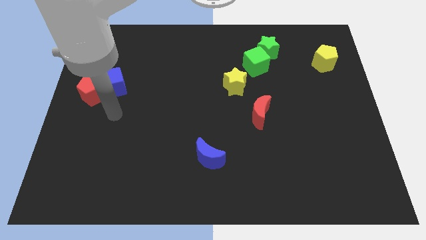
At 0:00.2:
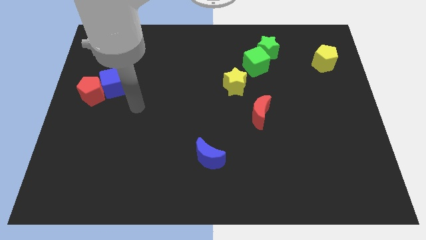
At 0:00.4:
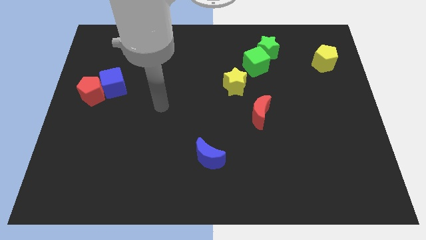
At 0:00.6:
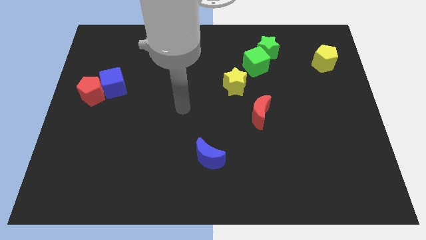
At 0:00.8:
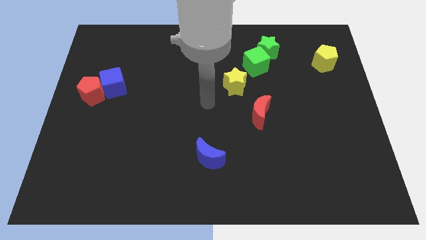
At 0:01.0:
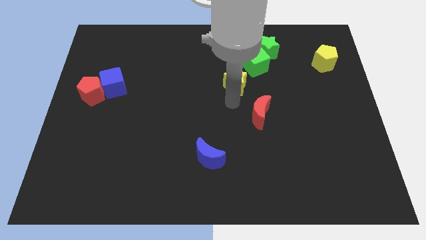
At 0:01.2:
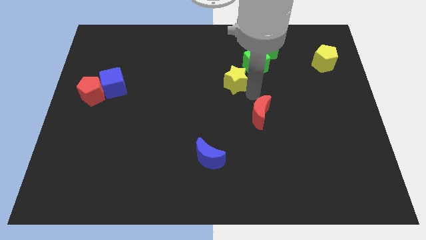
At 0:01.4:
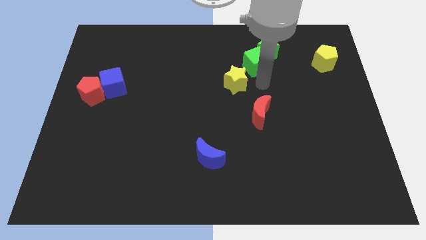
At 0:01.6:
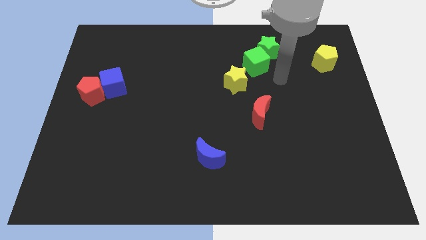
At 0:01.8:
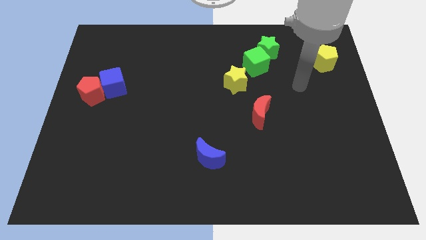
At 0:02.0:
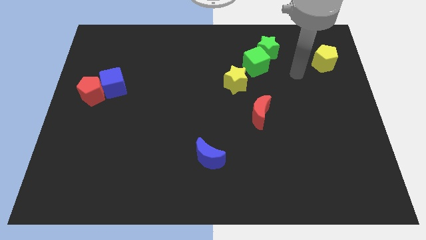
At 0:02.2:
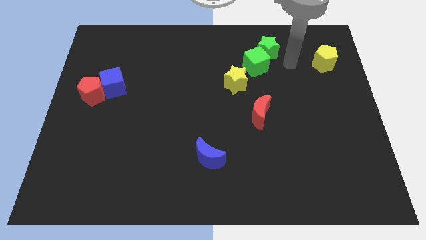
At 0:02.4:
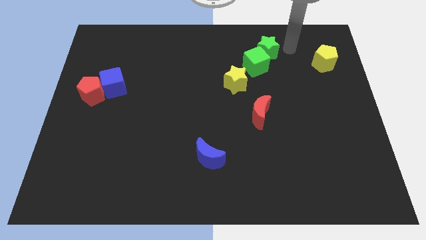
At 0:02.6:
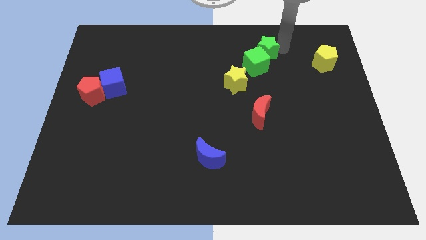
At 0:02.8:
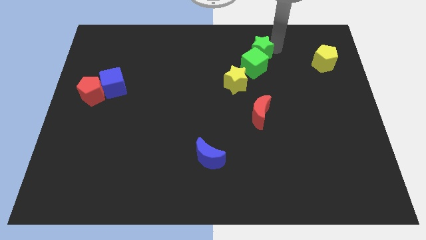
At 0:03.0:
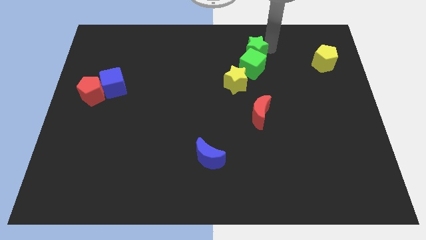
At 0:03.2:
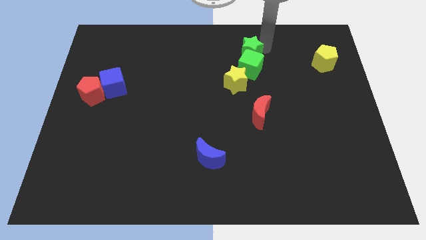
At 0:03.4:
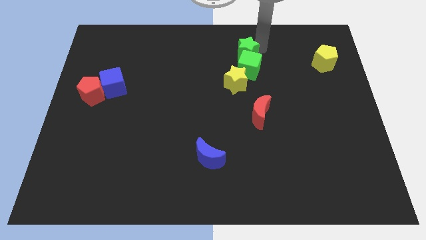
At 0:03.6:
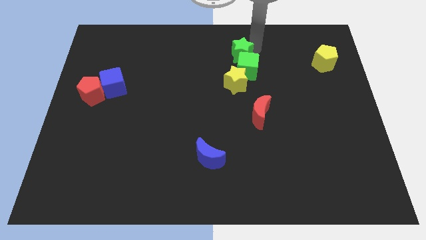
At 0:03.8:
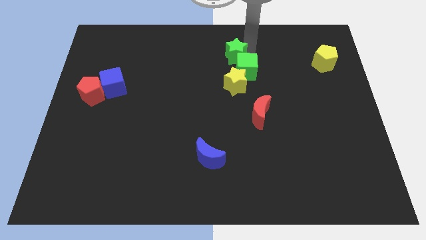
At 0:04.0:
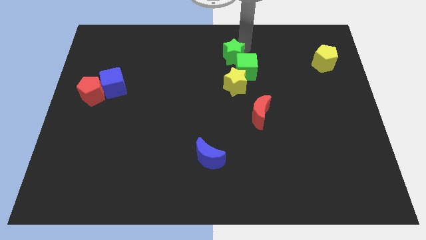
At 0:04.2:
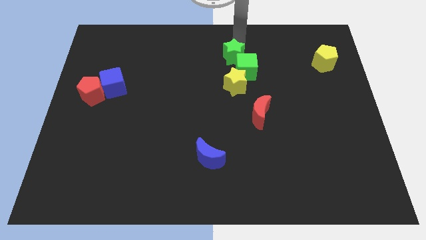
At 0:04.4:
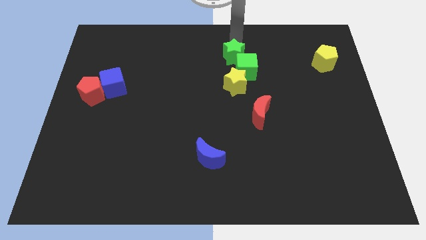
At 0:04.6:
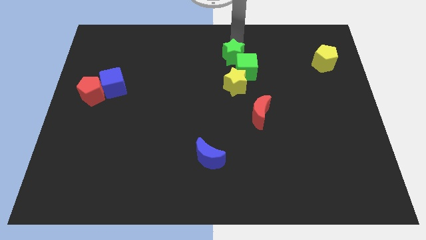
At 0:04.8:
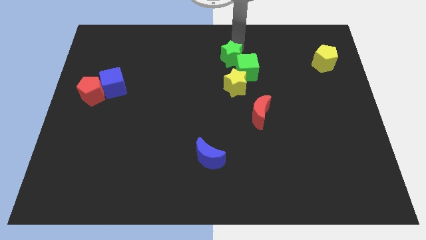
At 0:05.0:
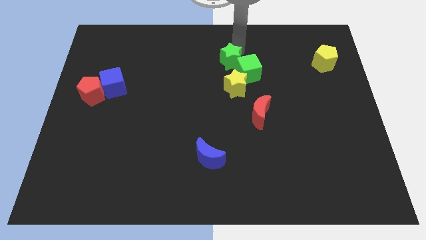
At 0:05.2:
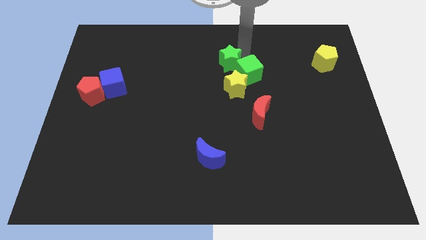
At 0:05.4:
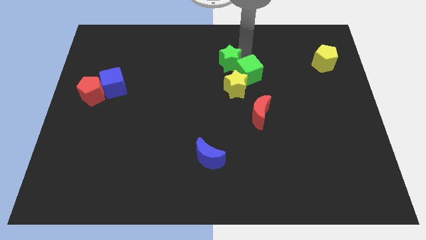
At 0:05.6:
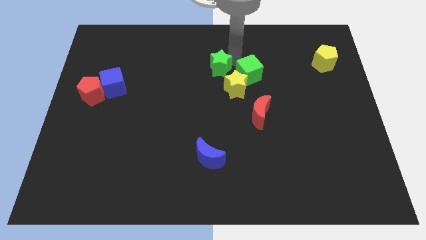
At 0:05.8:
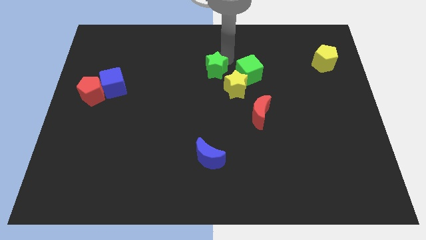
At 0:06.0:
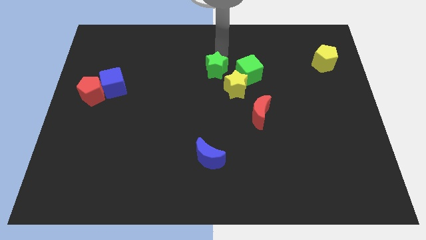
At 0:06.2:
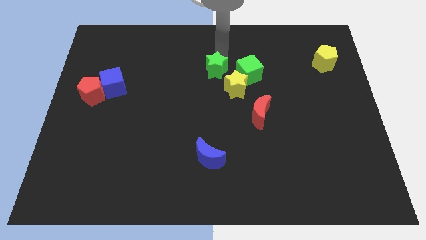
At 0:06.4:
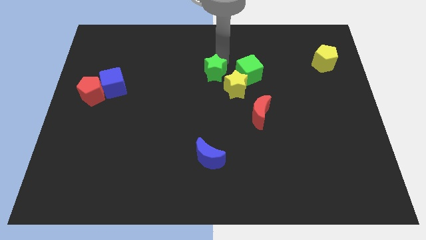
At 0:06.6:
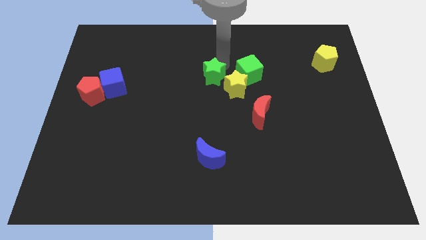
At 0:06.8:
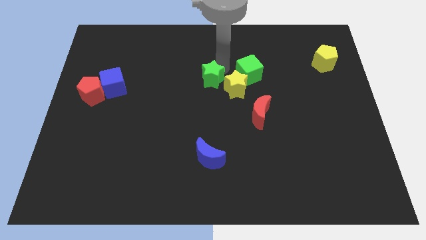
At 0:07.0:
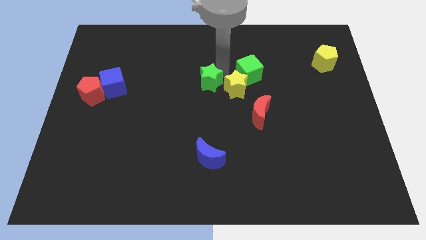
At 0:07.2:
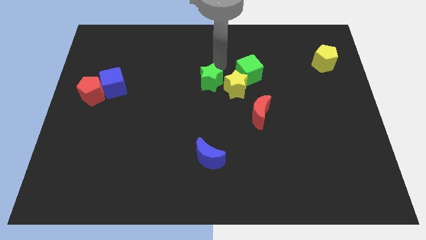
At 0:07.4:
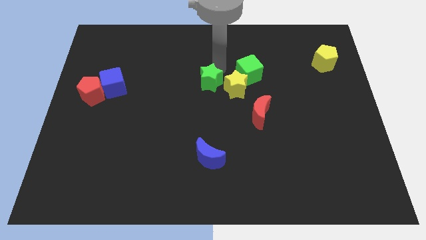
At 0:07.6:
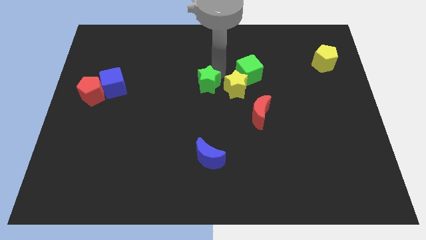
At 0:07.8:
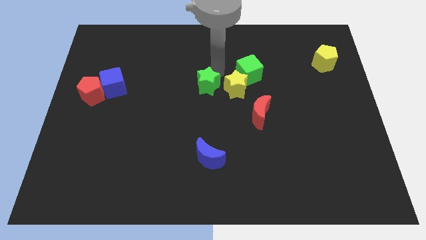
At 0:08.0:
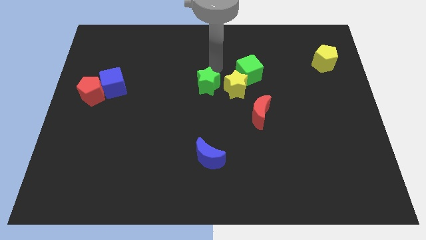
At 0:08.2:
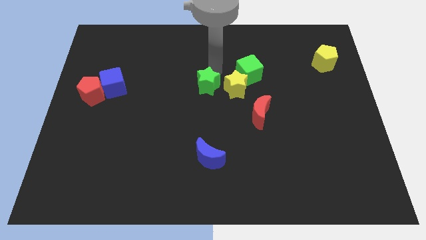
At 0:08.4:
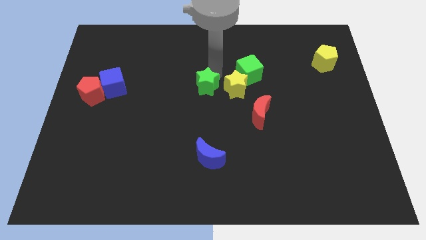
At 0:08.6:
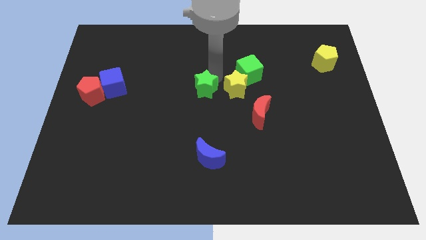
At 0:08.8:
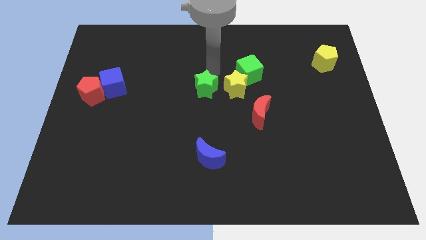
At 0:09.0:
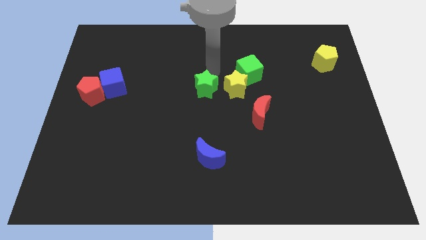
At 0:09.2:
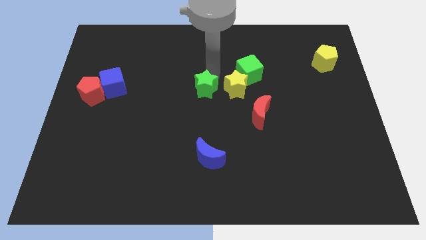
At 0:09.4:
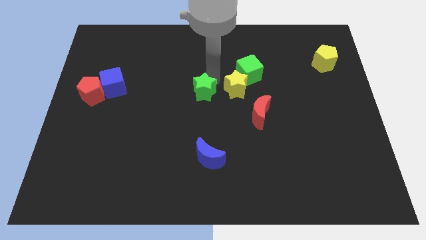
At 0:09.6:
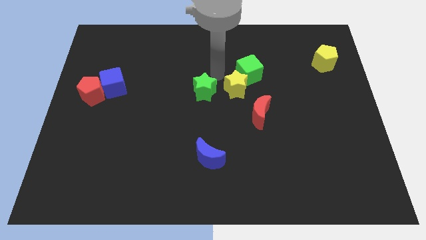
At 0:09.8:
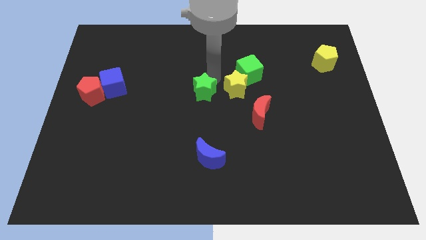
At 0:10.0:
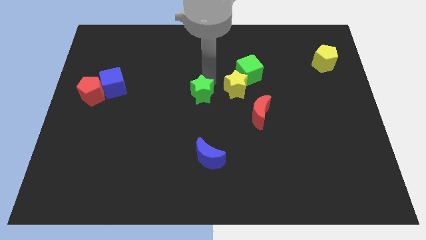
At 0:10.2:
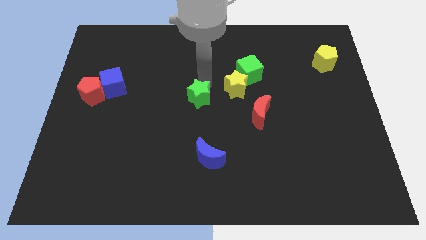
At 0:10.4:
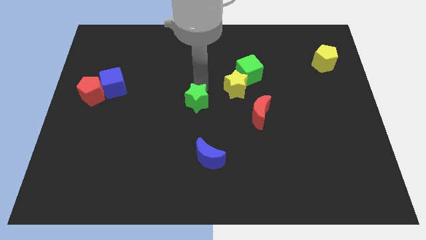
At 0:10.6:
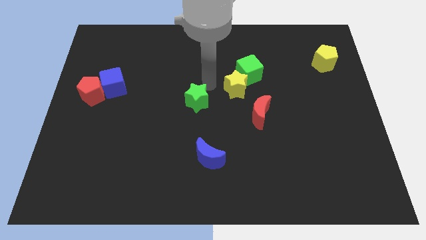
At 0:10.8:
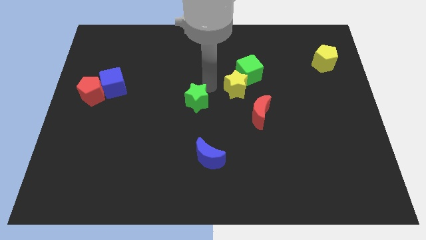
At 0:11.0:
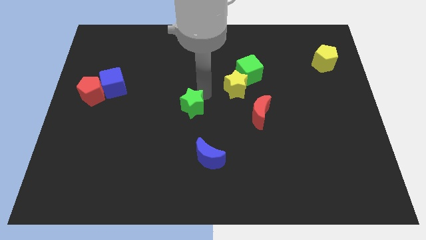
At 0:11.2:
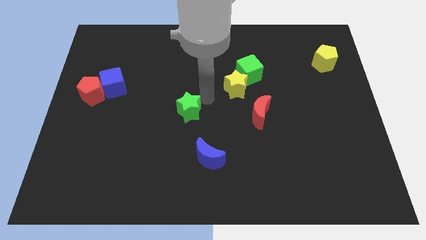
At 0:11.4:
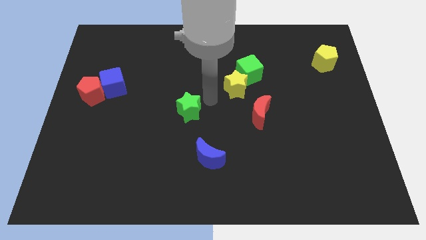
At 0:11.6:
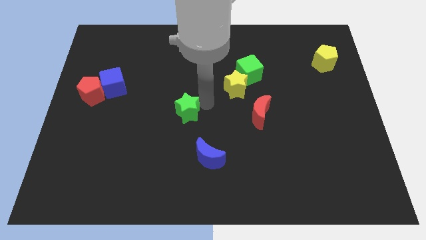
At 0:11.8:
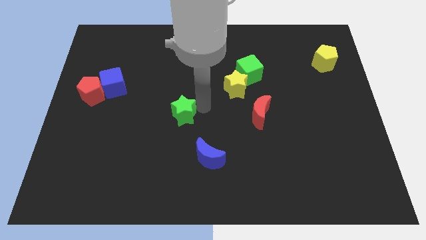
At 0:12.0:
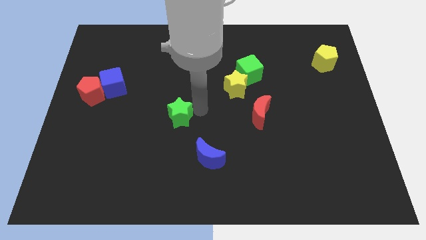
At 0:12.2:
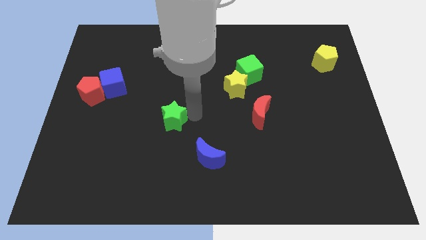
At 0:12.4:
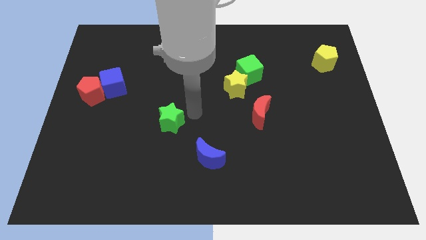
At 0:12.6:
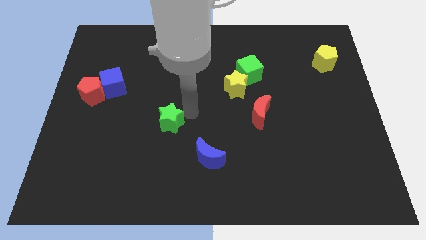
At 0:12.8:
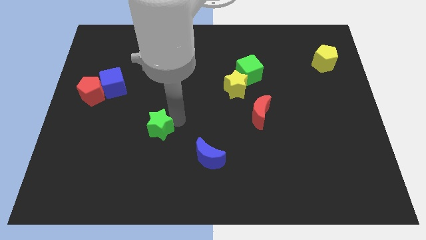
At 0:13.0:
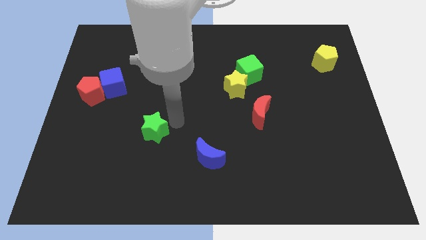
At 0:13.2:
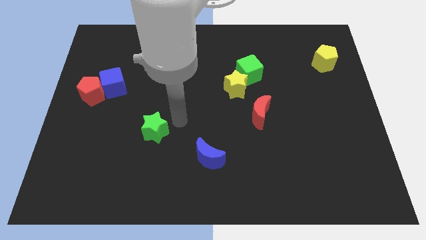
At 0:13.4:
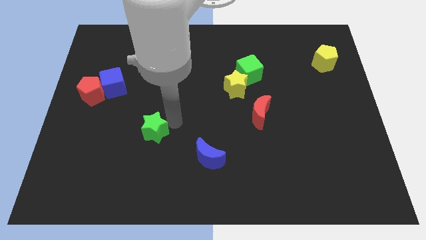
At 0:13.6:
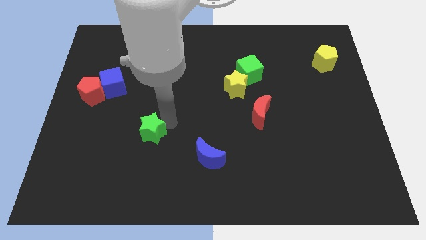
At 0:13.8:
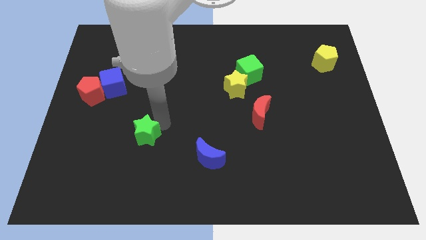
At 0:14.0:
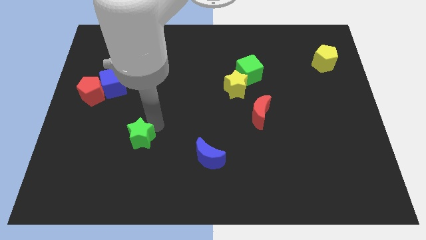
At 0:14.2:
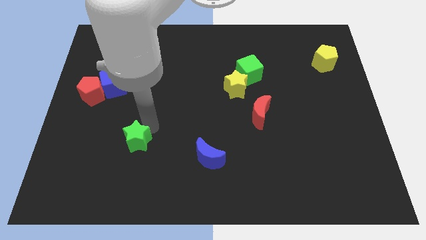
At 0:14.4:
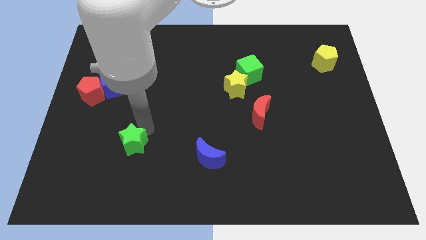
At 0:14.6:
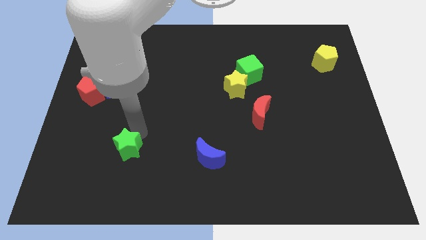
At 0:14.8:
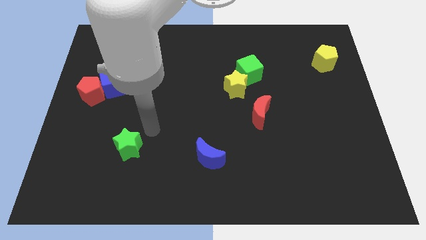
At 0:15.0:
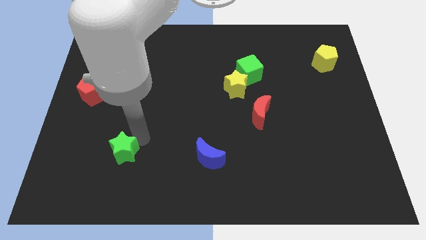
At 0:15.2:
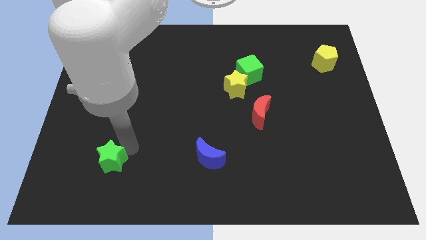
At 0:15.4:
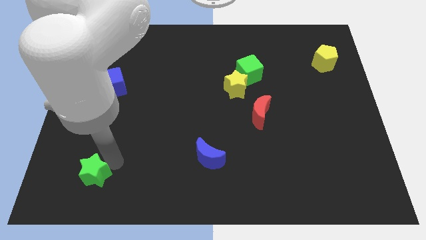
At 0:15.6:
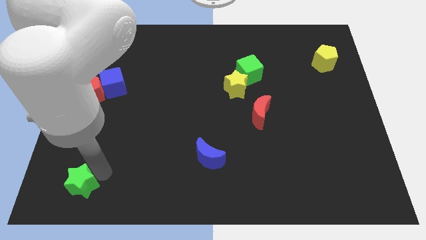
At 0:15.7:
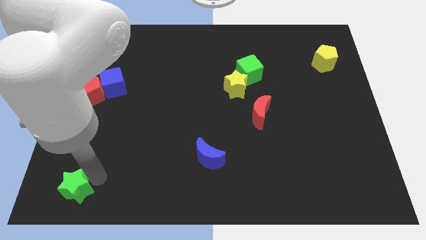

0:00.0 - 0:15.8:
slide the green star to the lower left corner
